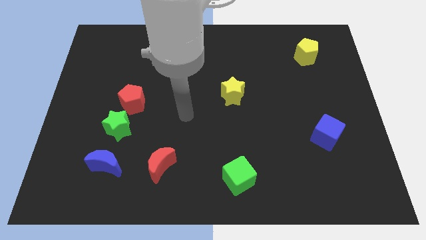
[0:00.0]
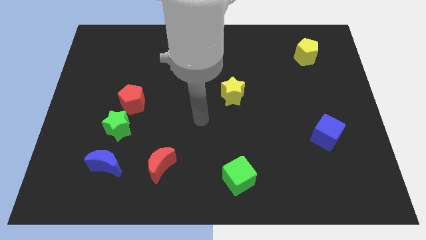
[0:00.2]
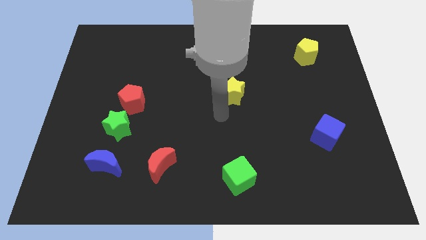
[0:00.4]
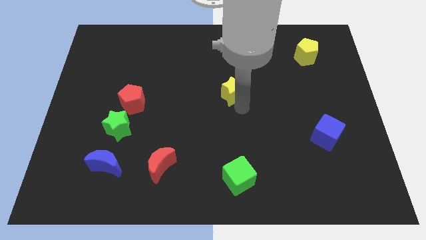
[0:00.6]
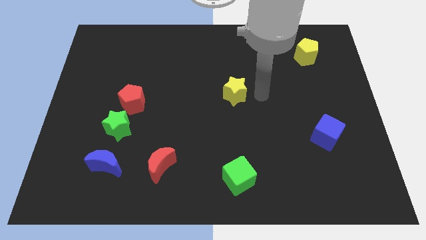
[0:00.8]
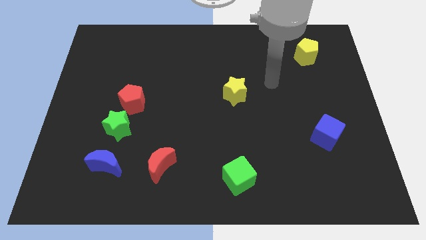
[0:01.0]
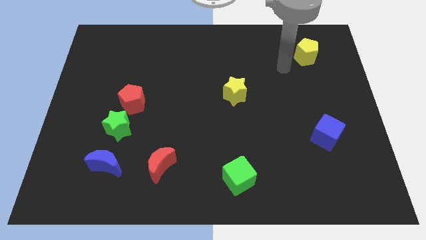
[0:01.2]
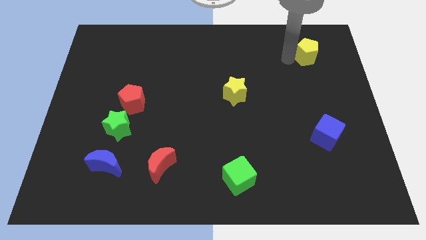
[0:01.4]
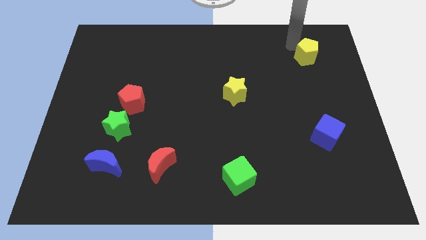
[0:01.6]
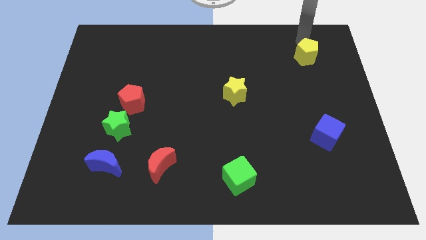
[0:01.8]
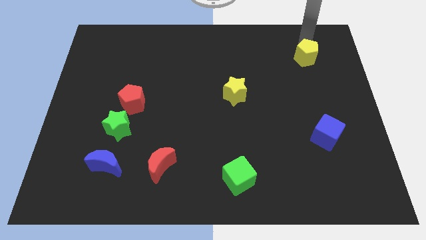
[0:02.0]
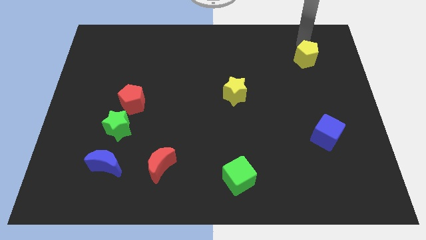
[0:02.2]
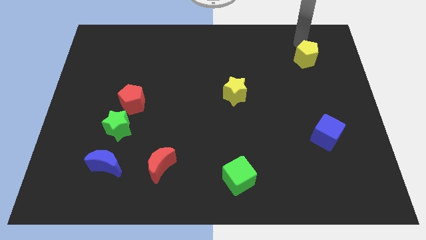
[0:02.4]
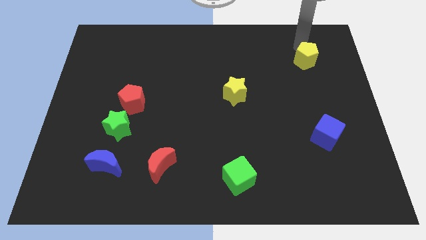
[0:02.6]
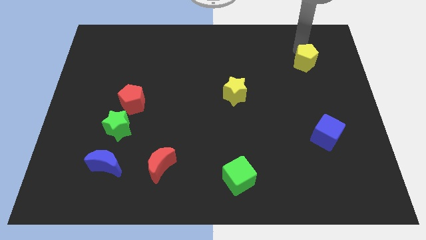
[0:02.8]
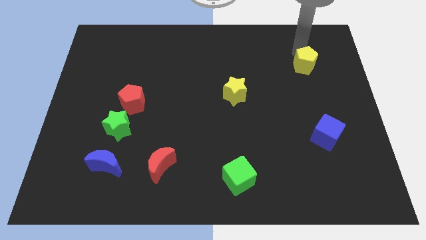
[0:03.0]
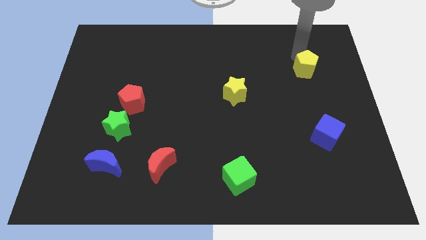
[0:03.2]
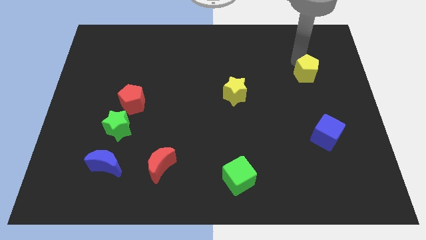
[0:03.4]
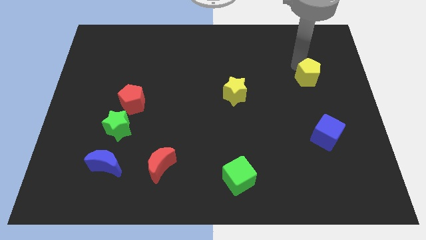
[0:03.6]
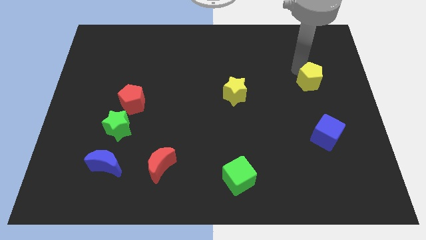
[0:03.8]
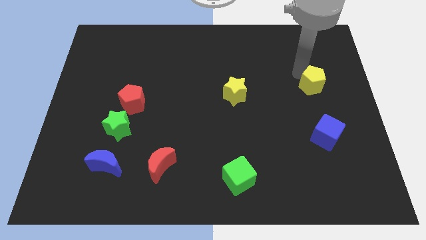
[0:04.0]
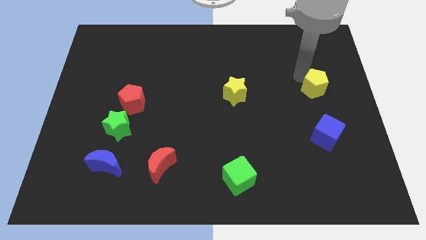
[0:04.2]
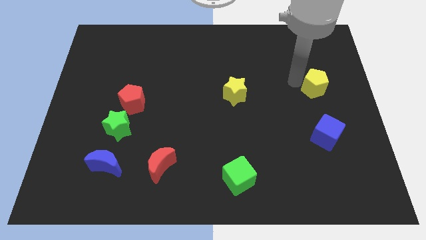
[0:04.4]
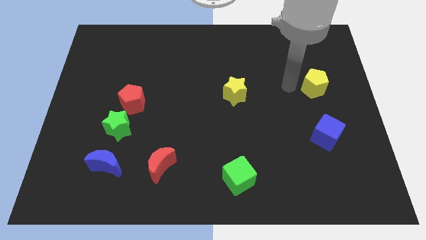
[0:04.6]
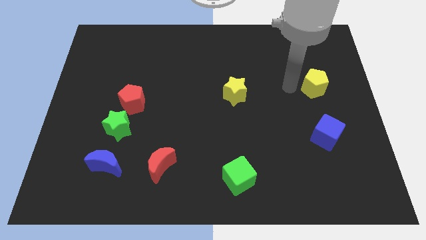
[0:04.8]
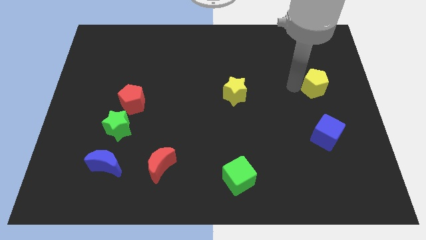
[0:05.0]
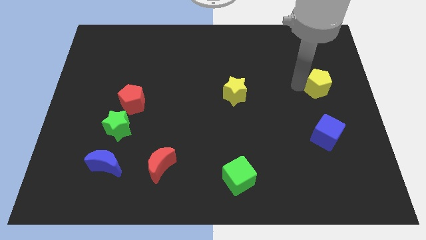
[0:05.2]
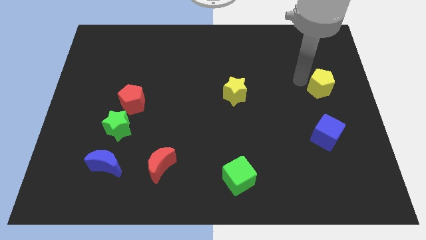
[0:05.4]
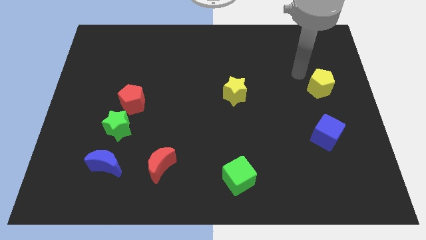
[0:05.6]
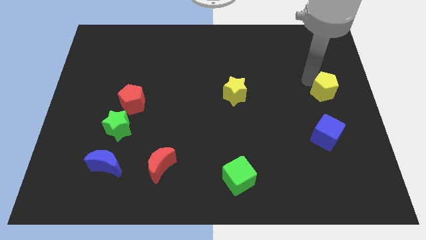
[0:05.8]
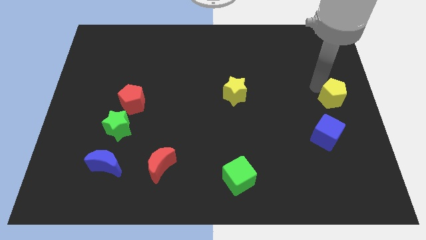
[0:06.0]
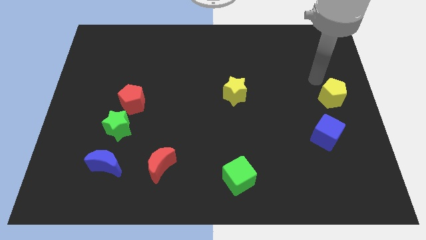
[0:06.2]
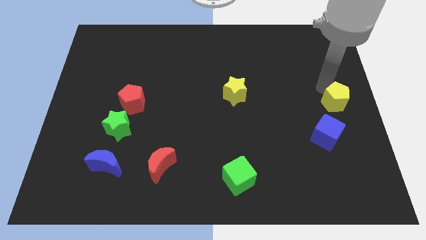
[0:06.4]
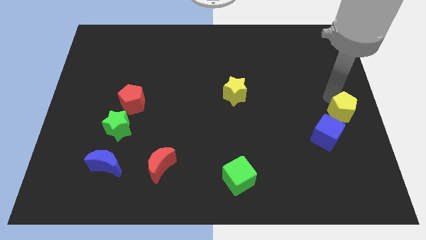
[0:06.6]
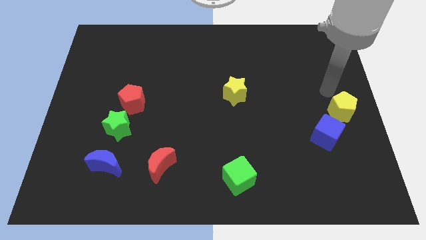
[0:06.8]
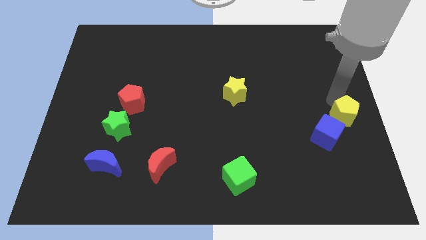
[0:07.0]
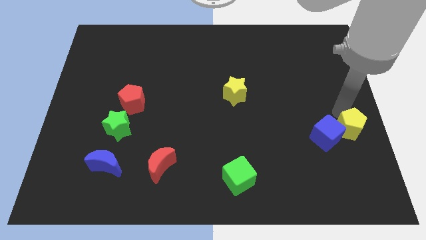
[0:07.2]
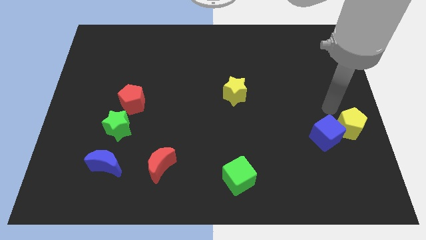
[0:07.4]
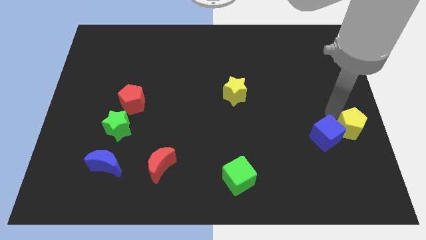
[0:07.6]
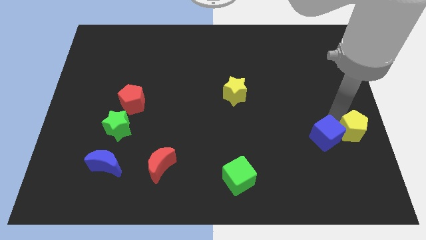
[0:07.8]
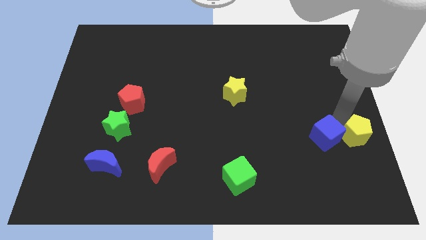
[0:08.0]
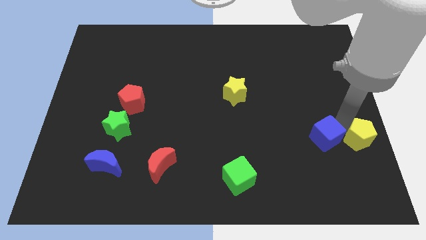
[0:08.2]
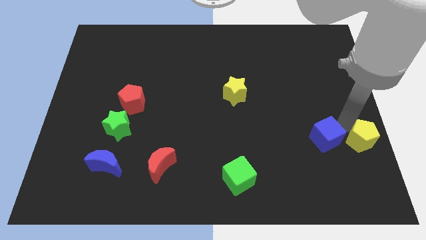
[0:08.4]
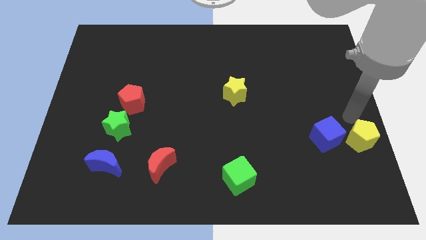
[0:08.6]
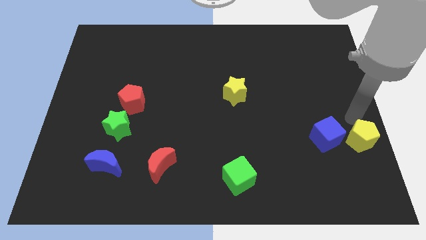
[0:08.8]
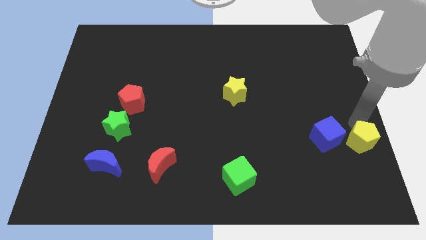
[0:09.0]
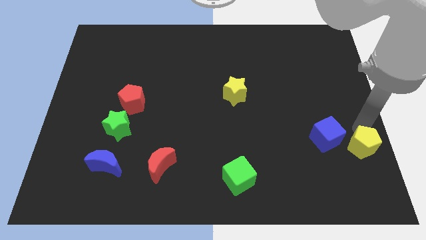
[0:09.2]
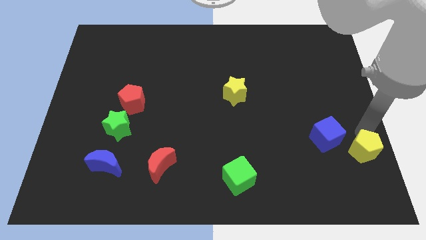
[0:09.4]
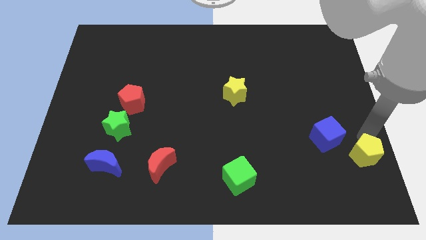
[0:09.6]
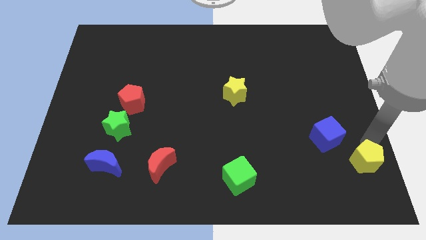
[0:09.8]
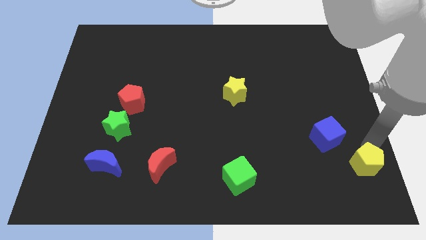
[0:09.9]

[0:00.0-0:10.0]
move the yellow pentagon to the lower right corner

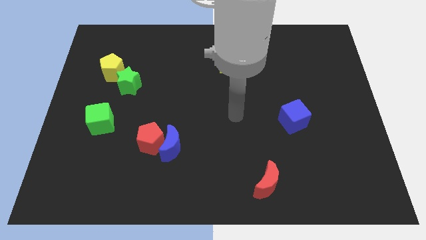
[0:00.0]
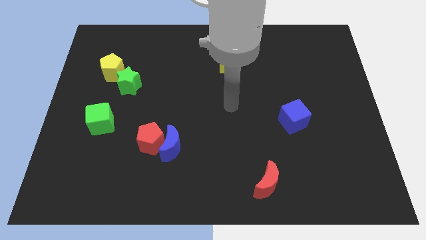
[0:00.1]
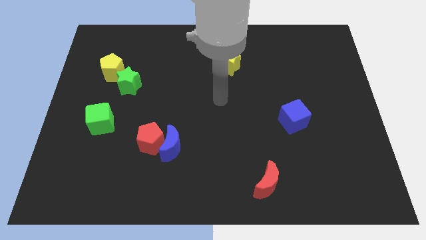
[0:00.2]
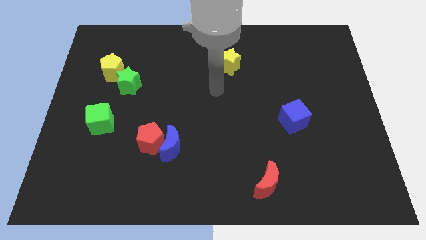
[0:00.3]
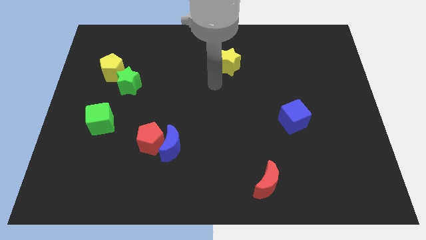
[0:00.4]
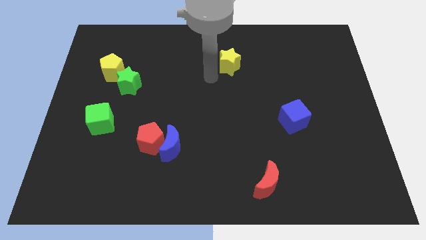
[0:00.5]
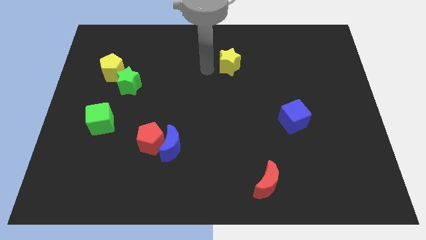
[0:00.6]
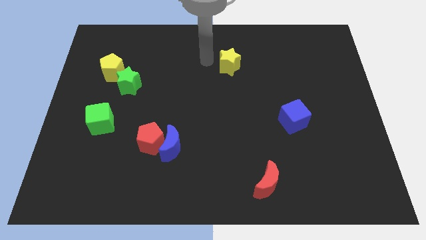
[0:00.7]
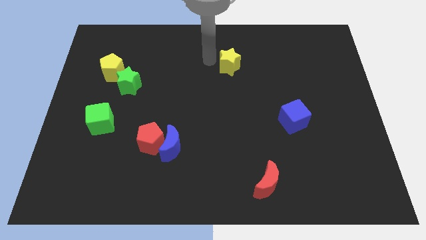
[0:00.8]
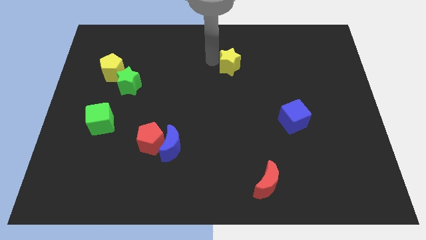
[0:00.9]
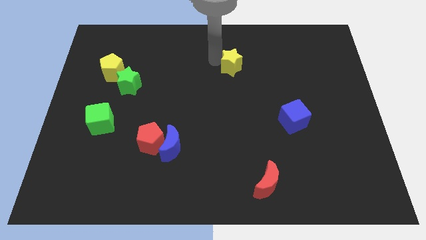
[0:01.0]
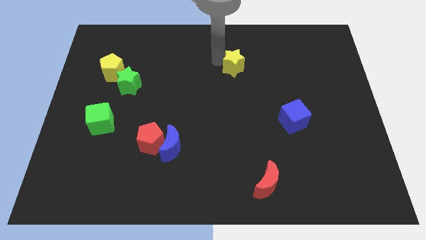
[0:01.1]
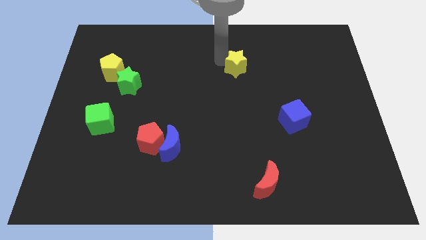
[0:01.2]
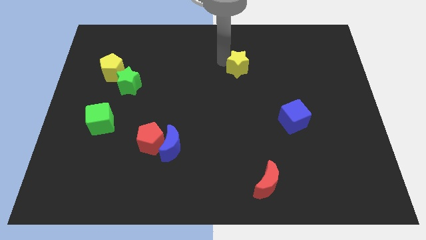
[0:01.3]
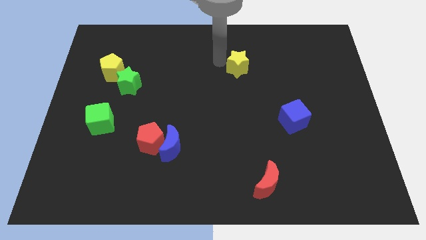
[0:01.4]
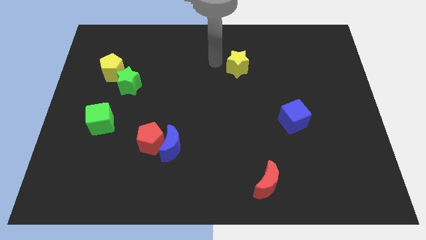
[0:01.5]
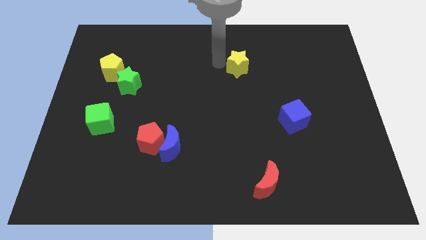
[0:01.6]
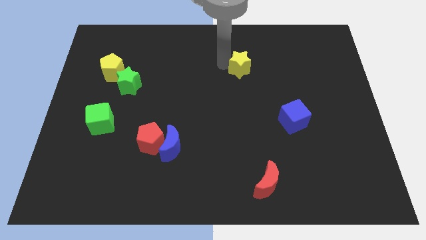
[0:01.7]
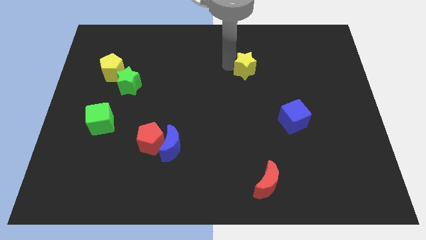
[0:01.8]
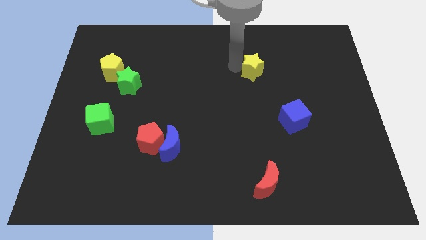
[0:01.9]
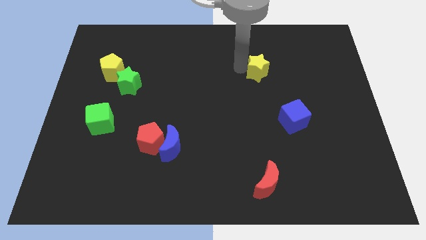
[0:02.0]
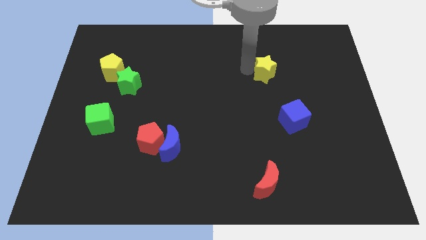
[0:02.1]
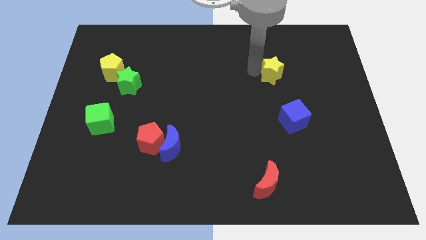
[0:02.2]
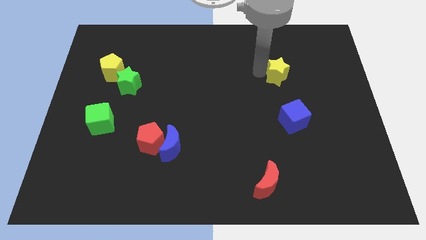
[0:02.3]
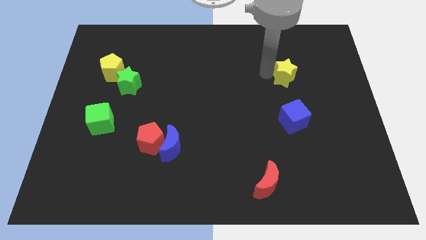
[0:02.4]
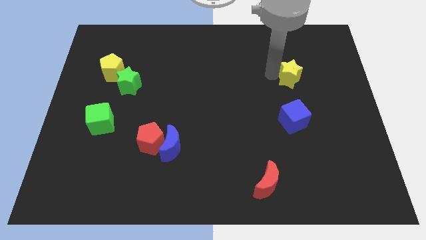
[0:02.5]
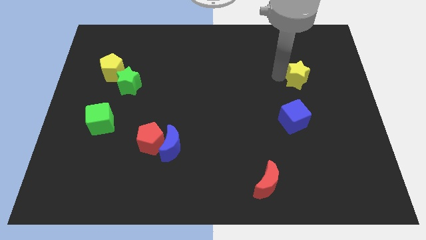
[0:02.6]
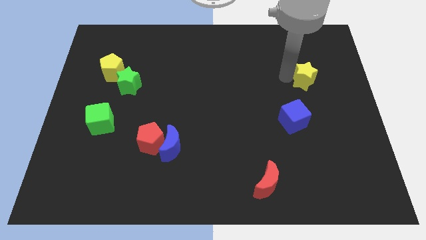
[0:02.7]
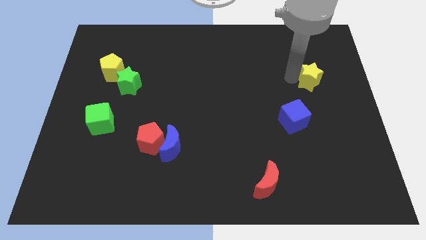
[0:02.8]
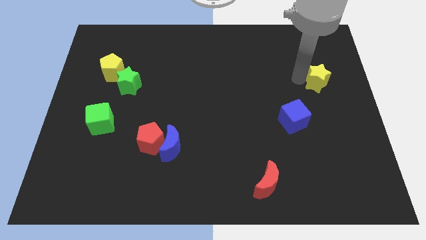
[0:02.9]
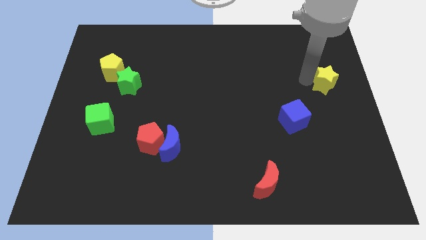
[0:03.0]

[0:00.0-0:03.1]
push the yellow star to the center right
